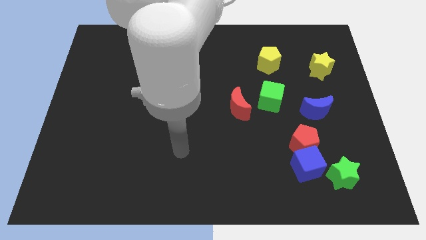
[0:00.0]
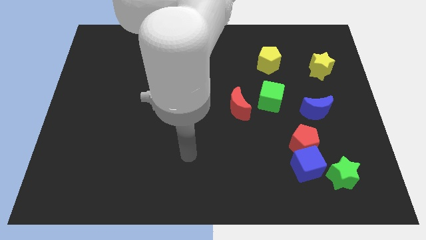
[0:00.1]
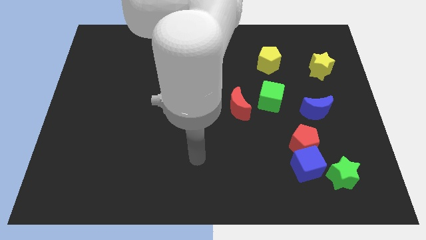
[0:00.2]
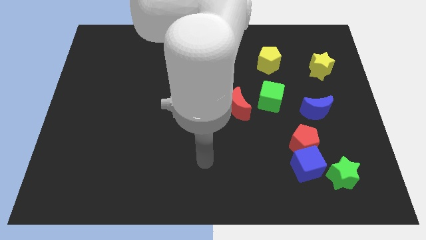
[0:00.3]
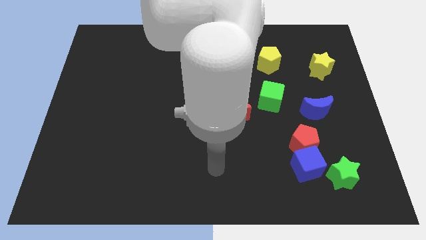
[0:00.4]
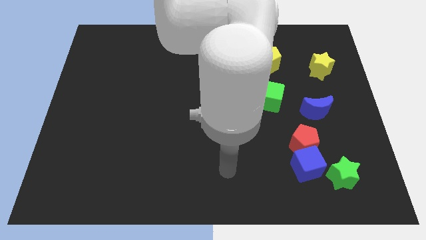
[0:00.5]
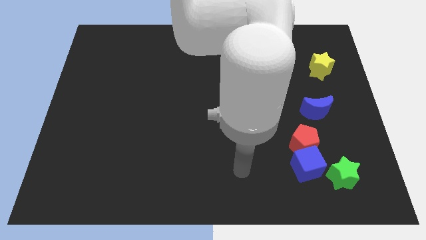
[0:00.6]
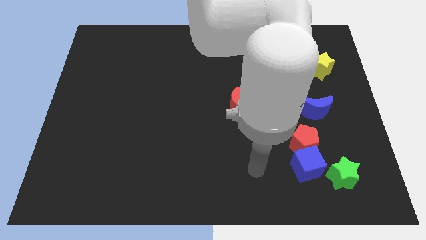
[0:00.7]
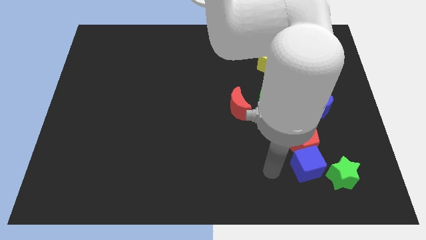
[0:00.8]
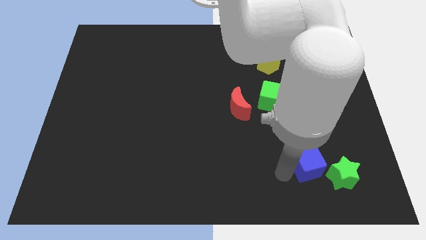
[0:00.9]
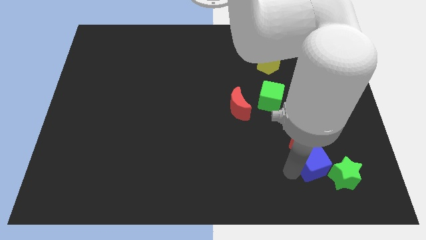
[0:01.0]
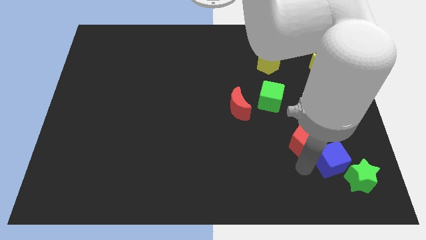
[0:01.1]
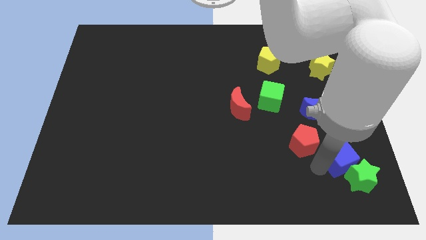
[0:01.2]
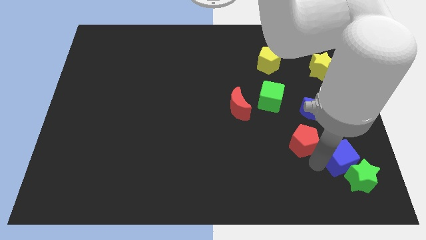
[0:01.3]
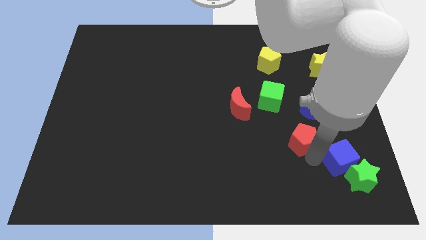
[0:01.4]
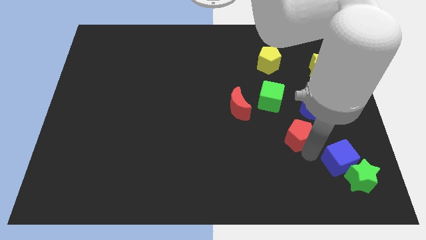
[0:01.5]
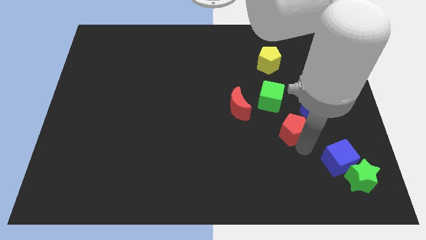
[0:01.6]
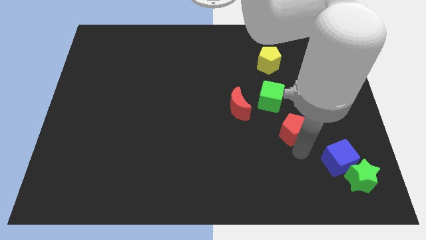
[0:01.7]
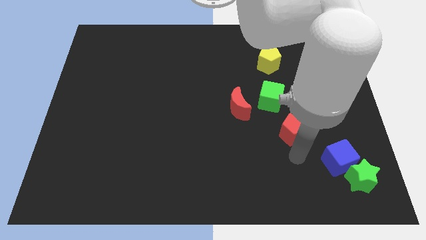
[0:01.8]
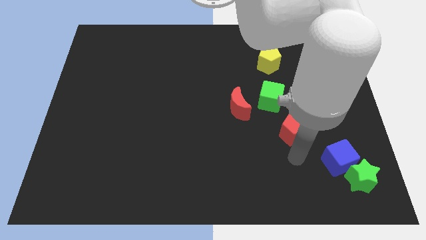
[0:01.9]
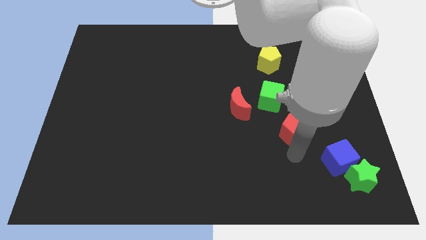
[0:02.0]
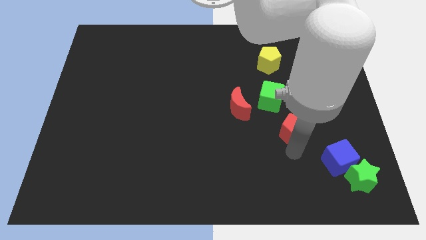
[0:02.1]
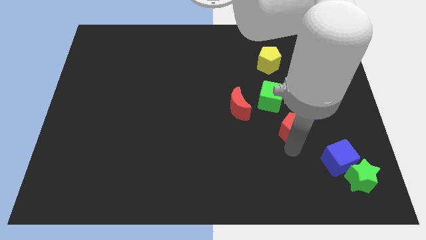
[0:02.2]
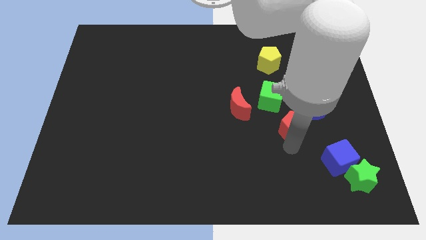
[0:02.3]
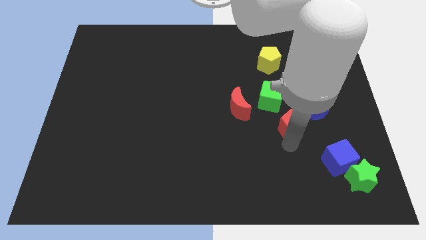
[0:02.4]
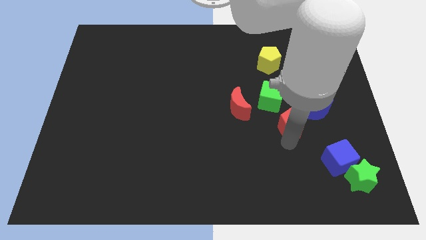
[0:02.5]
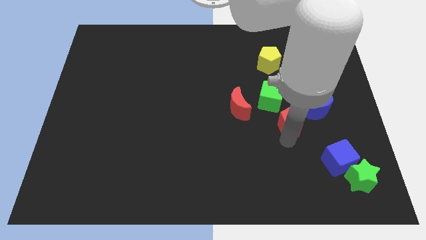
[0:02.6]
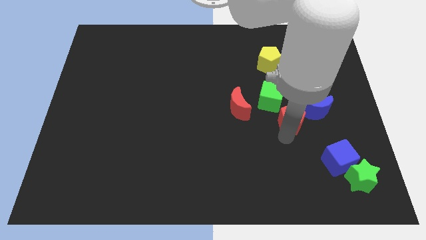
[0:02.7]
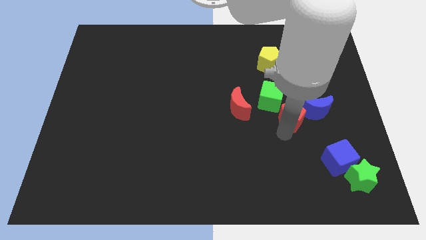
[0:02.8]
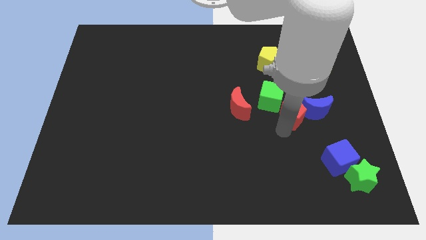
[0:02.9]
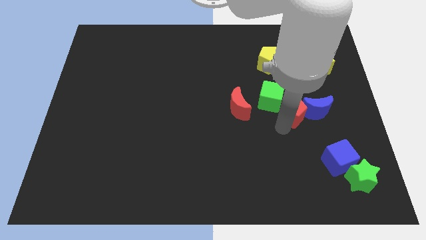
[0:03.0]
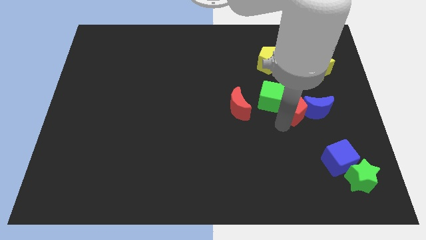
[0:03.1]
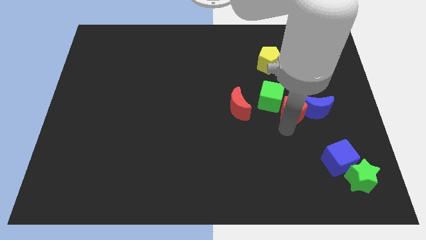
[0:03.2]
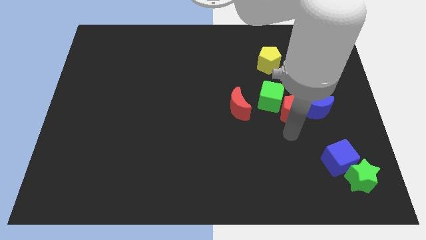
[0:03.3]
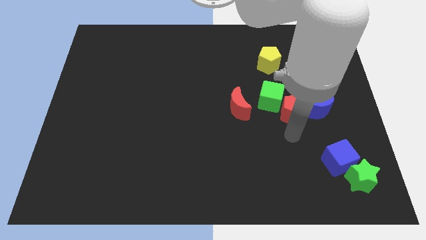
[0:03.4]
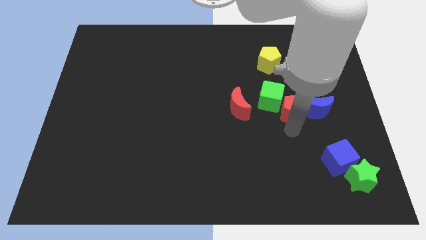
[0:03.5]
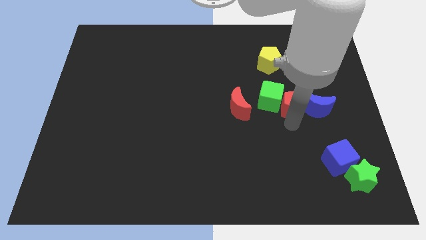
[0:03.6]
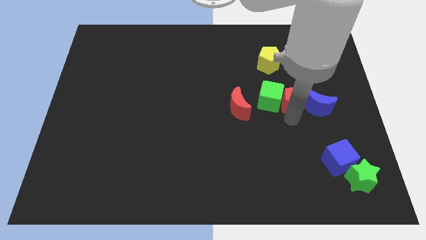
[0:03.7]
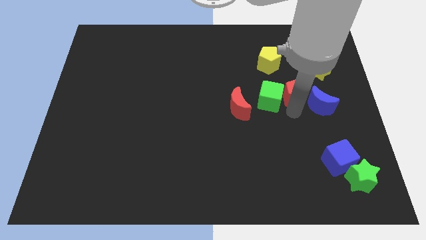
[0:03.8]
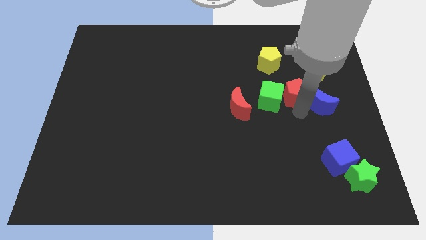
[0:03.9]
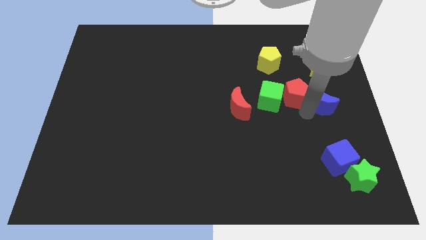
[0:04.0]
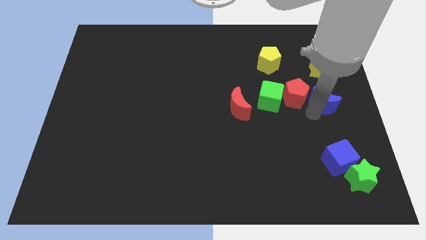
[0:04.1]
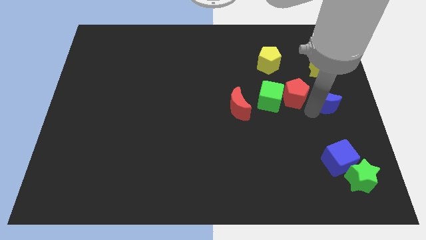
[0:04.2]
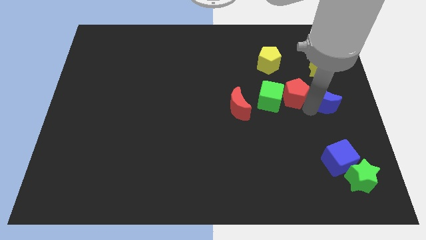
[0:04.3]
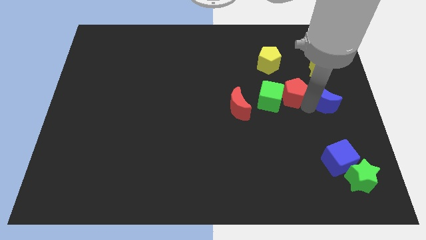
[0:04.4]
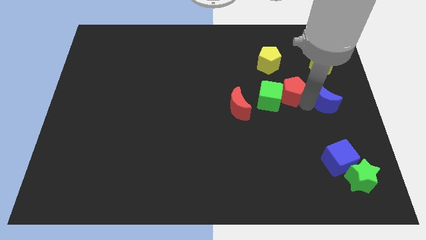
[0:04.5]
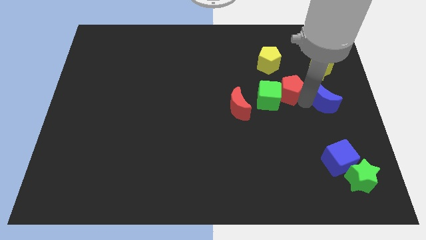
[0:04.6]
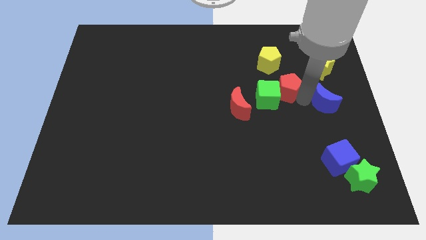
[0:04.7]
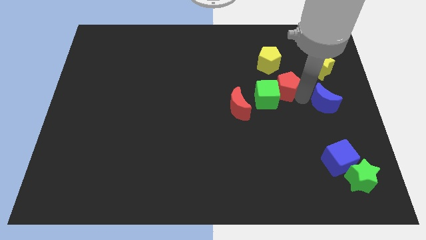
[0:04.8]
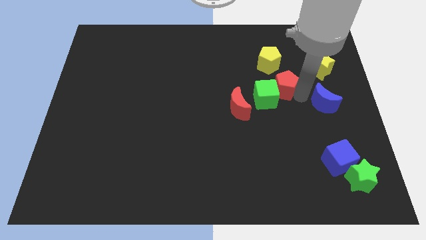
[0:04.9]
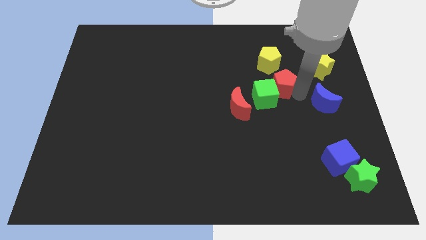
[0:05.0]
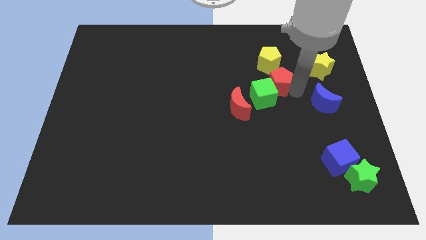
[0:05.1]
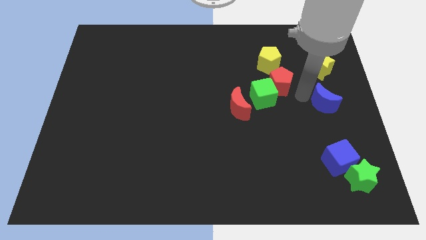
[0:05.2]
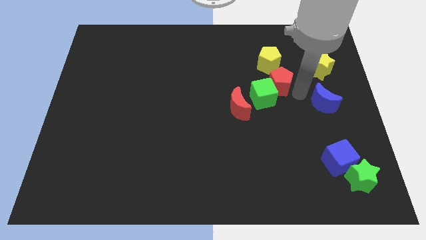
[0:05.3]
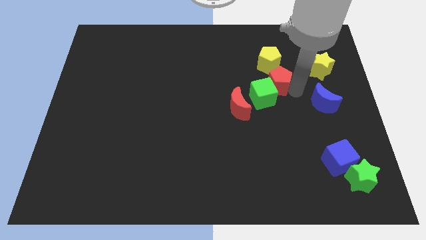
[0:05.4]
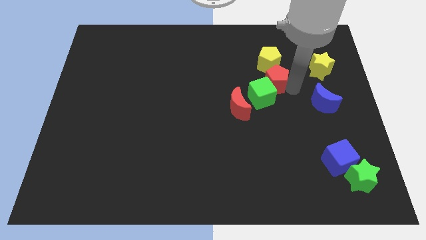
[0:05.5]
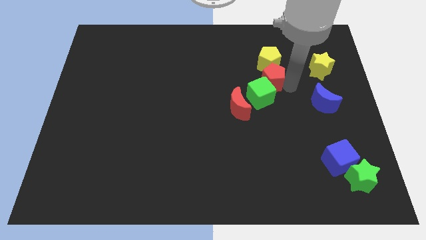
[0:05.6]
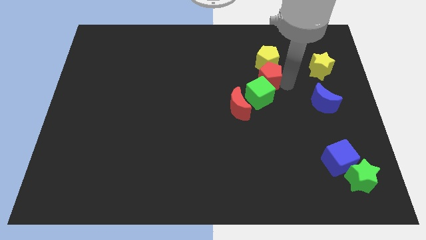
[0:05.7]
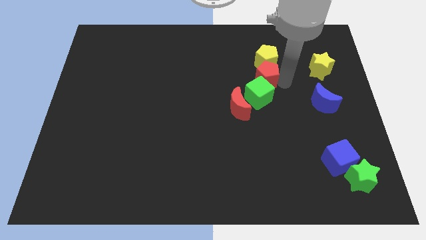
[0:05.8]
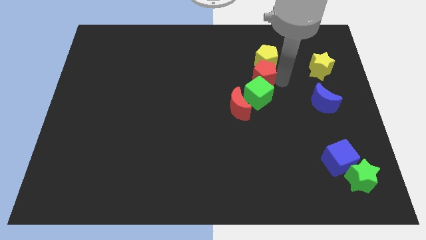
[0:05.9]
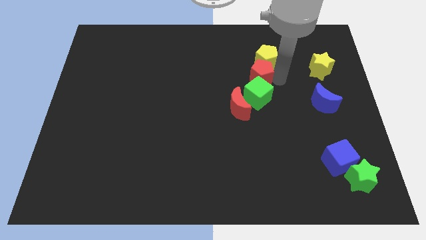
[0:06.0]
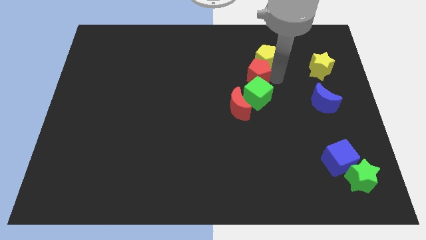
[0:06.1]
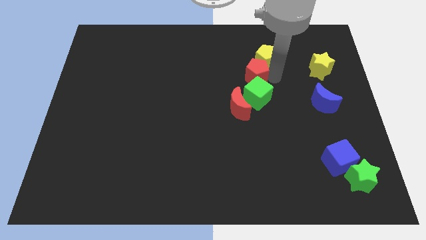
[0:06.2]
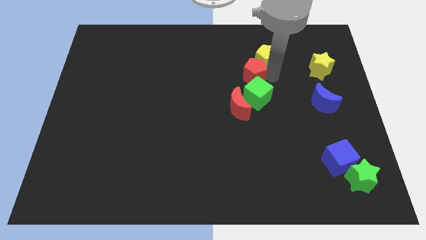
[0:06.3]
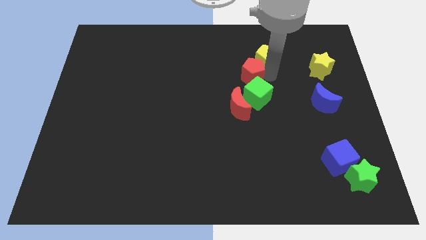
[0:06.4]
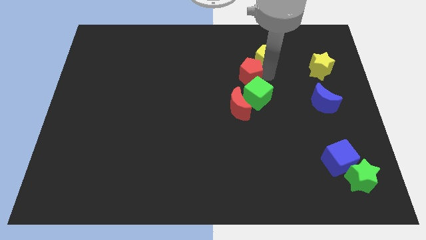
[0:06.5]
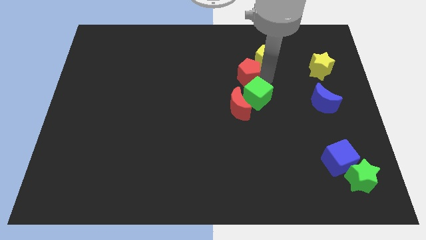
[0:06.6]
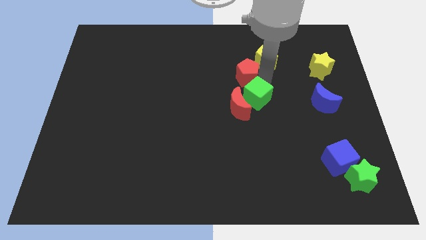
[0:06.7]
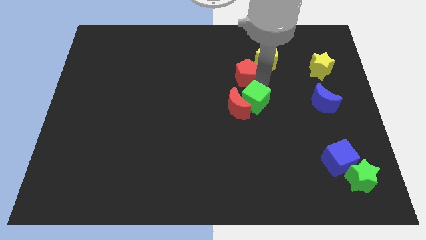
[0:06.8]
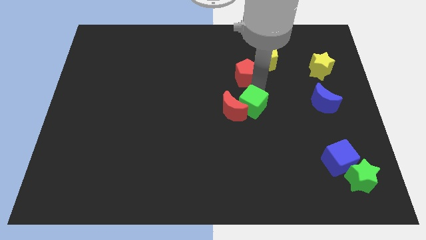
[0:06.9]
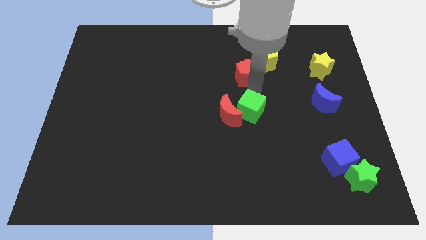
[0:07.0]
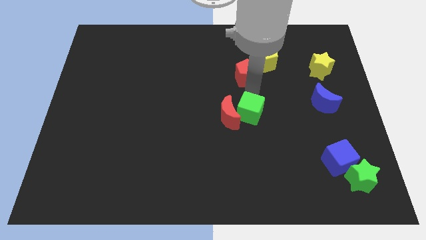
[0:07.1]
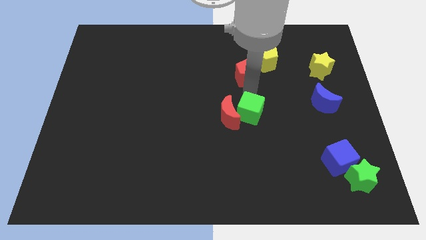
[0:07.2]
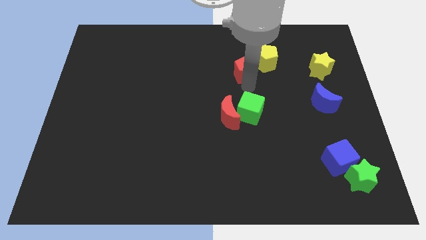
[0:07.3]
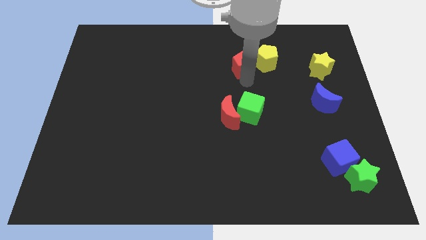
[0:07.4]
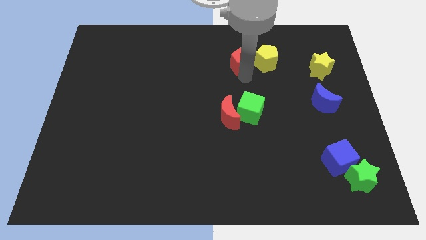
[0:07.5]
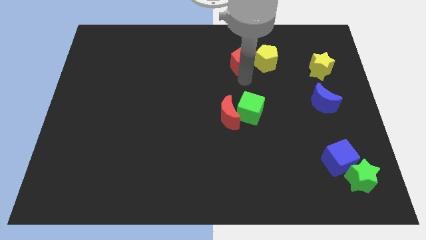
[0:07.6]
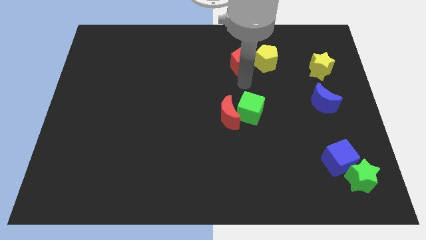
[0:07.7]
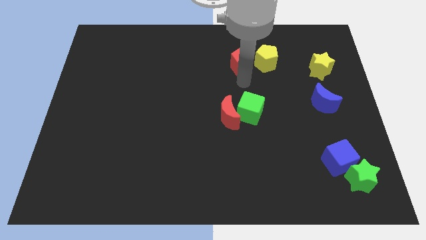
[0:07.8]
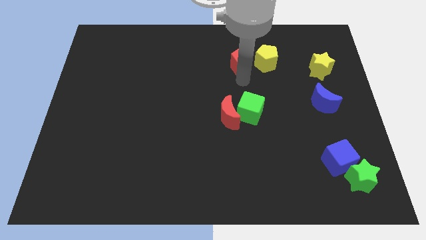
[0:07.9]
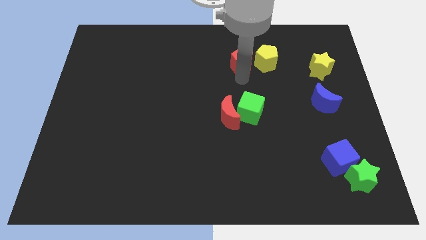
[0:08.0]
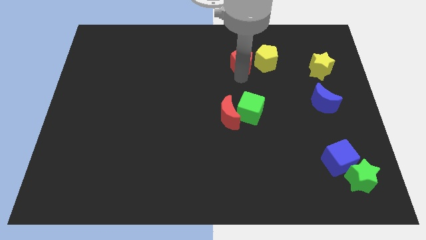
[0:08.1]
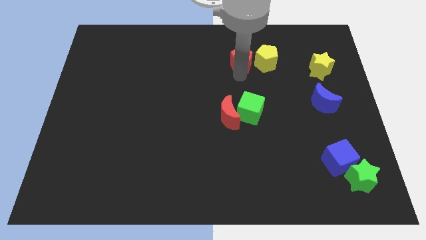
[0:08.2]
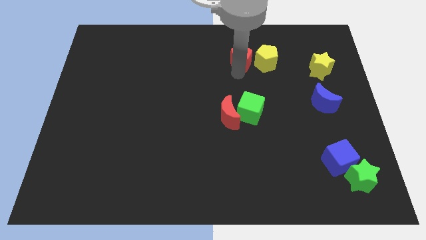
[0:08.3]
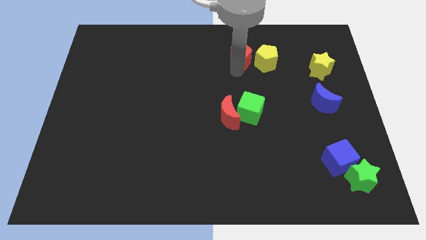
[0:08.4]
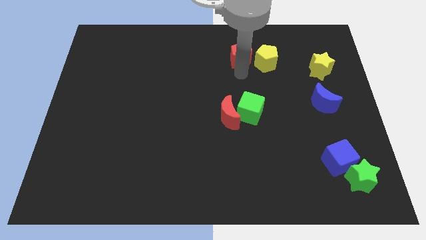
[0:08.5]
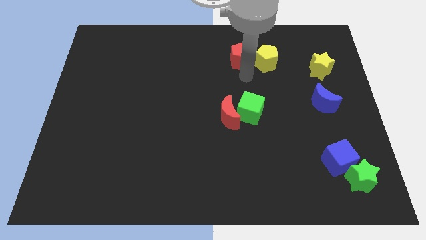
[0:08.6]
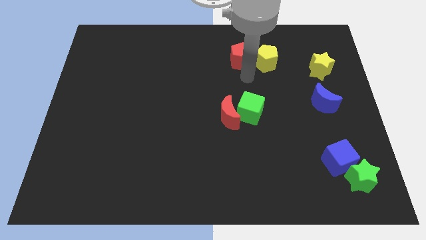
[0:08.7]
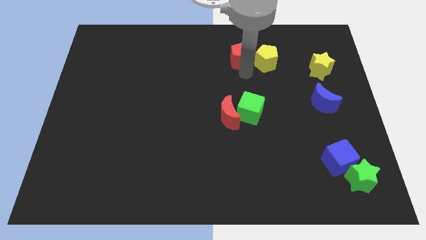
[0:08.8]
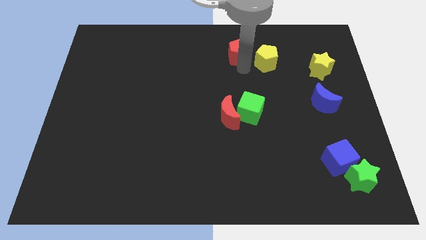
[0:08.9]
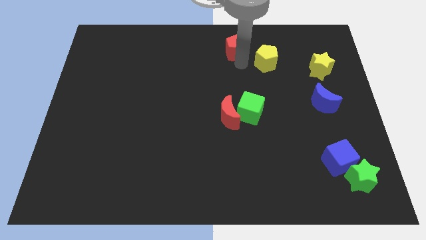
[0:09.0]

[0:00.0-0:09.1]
slide the red pentagon to the top side
